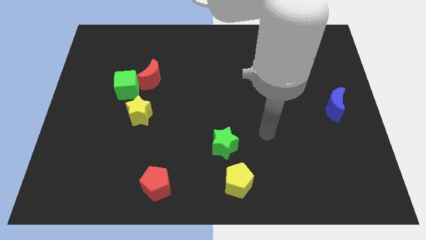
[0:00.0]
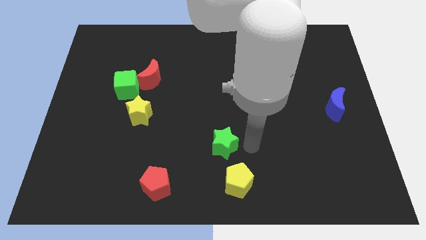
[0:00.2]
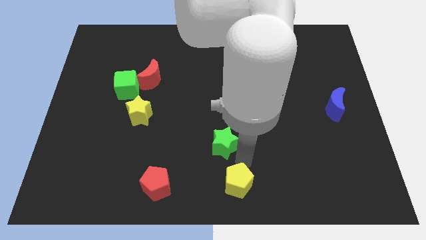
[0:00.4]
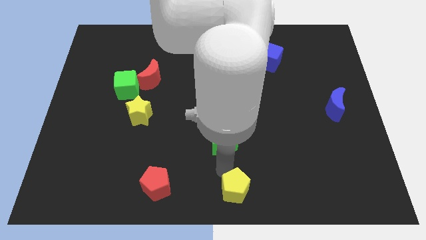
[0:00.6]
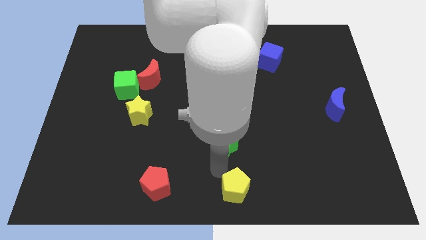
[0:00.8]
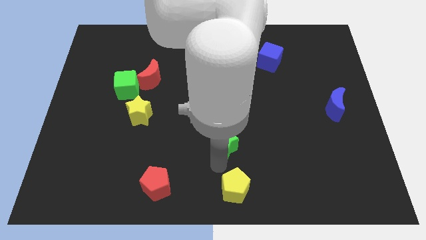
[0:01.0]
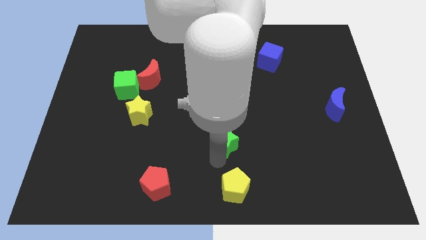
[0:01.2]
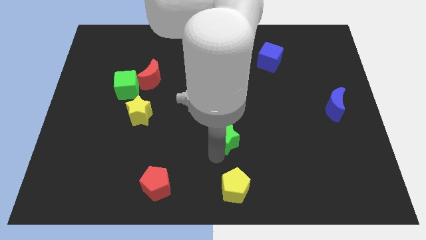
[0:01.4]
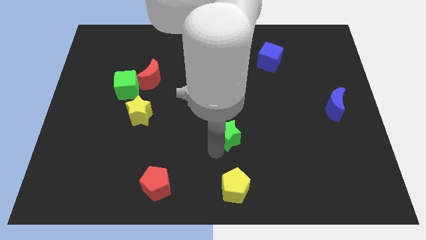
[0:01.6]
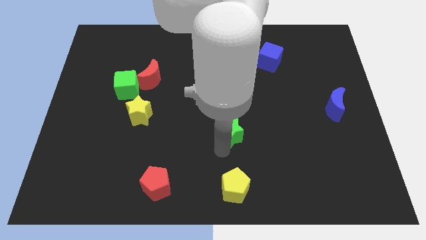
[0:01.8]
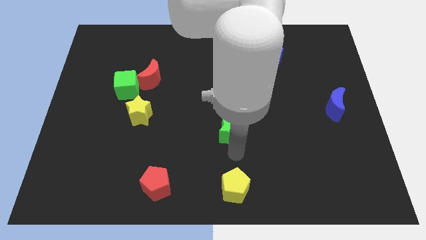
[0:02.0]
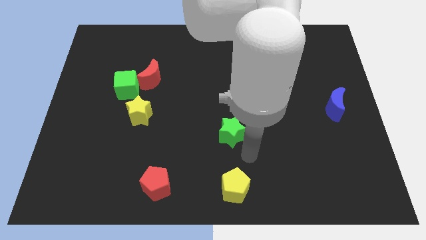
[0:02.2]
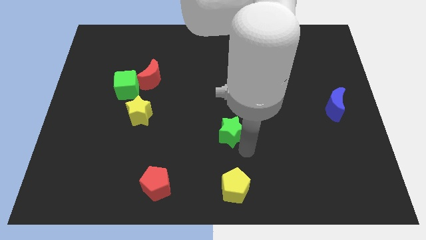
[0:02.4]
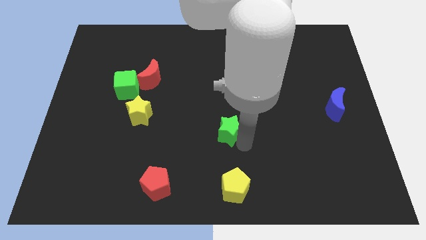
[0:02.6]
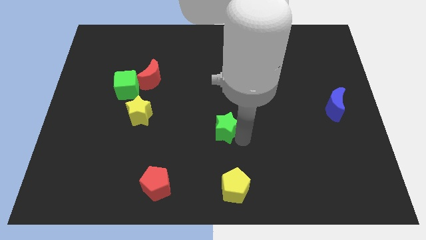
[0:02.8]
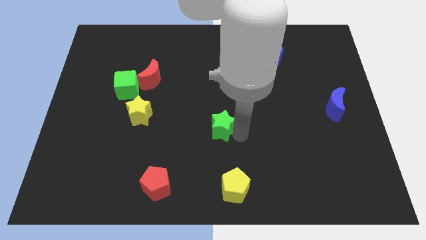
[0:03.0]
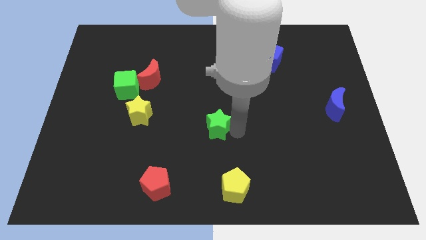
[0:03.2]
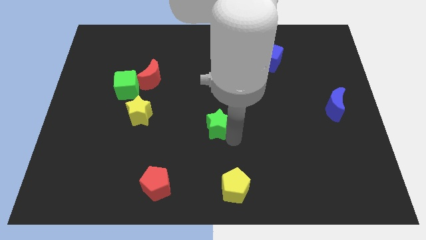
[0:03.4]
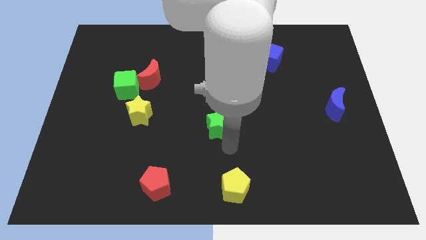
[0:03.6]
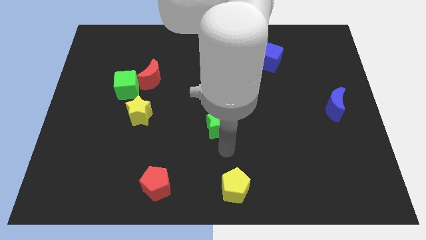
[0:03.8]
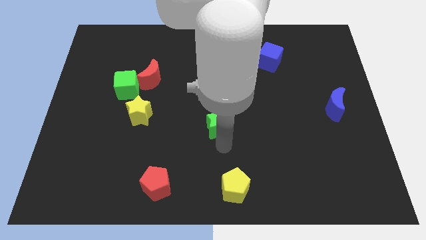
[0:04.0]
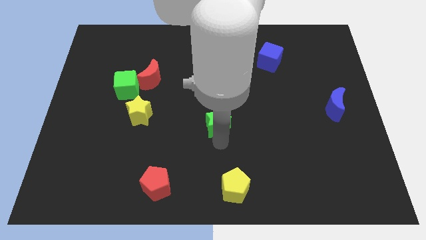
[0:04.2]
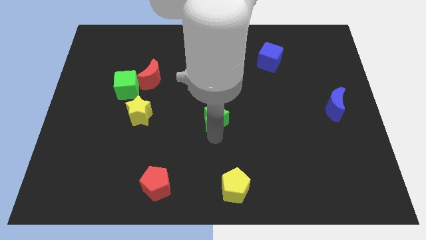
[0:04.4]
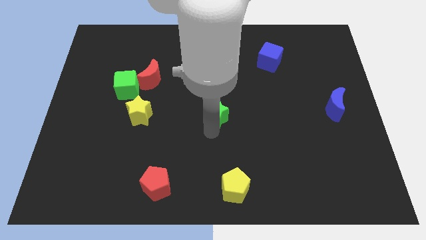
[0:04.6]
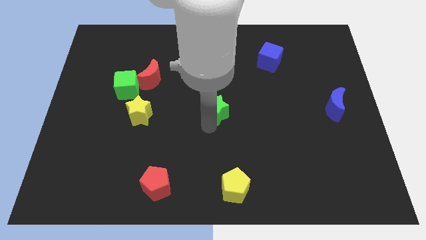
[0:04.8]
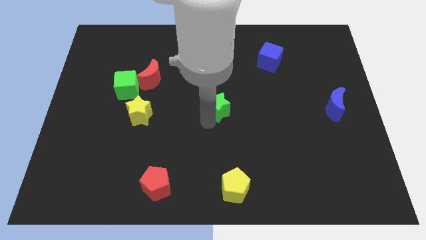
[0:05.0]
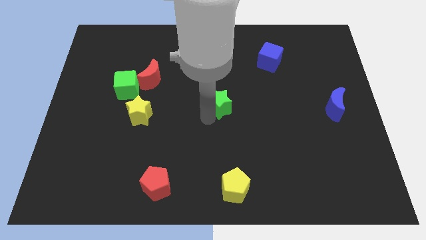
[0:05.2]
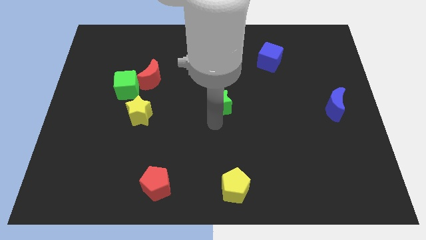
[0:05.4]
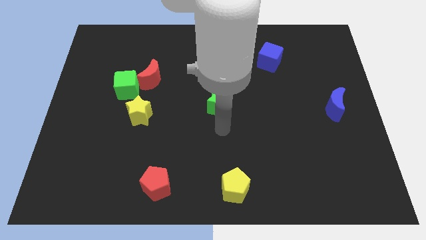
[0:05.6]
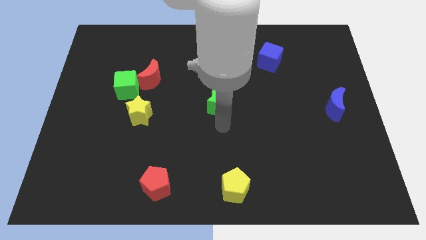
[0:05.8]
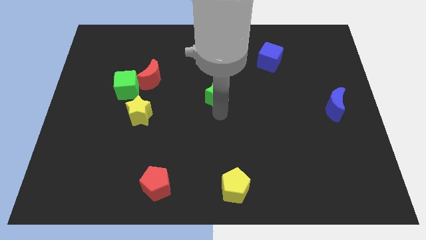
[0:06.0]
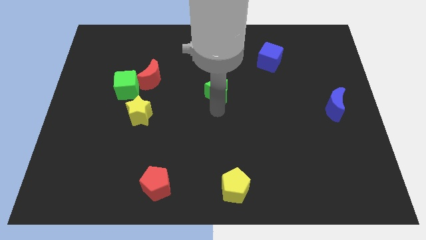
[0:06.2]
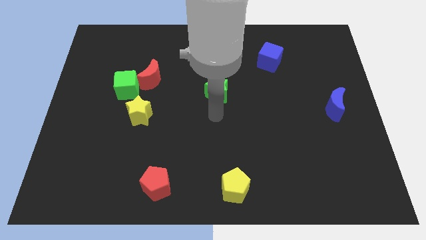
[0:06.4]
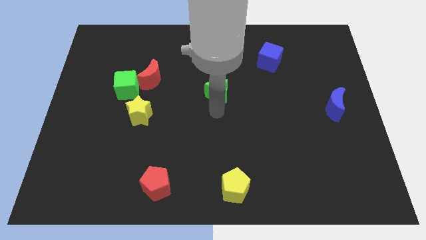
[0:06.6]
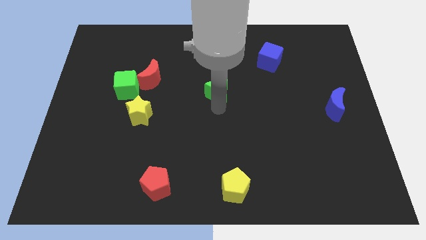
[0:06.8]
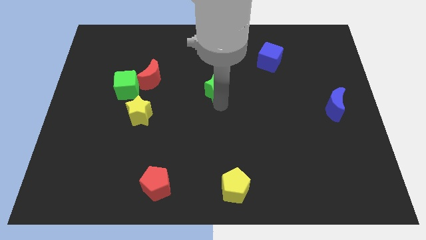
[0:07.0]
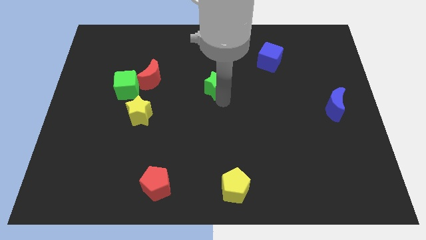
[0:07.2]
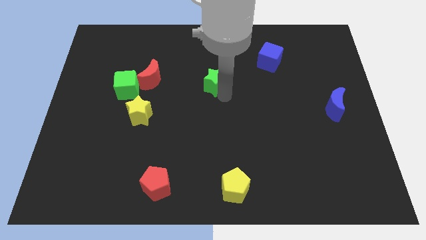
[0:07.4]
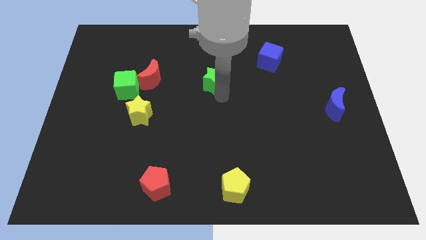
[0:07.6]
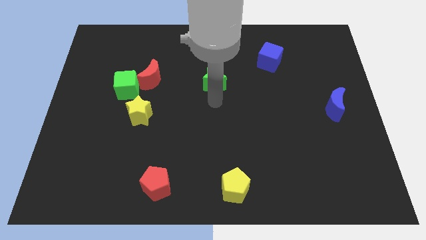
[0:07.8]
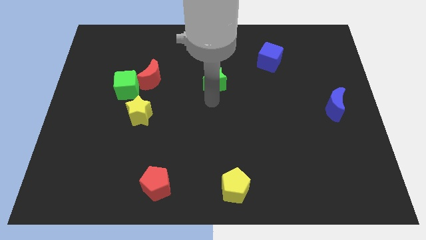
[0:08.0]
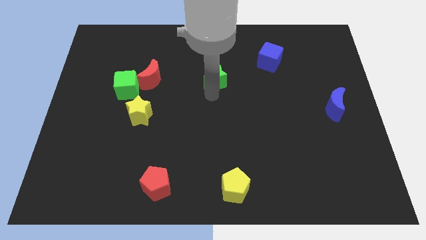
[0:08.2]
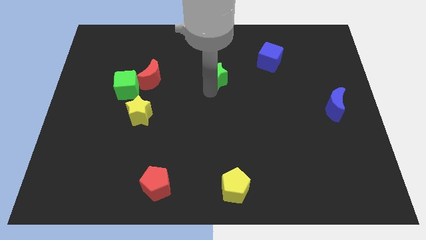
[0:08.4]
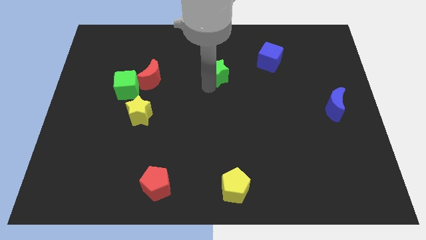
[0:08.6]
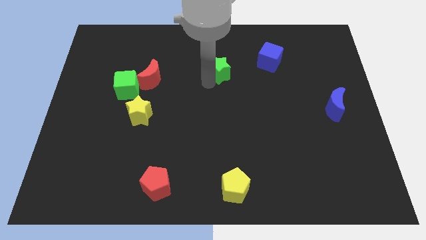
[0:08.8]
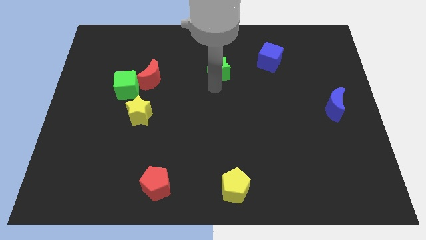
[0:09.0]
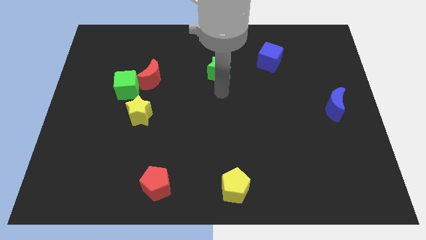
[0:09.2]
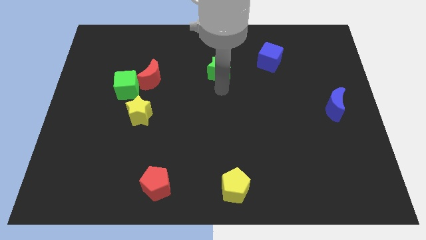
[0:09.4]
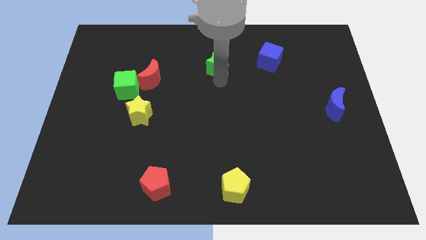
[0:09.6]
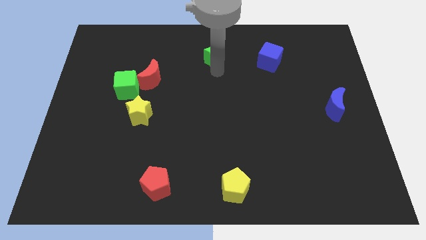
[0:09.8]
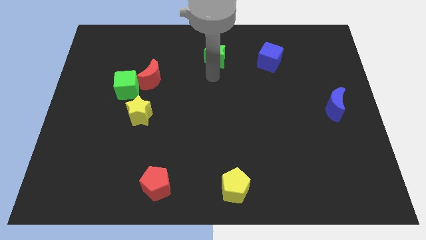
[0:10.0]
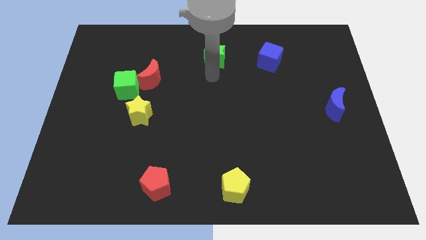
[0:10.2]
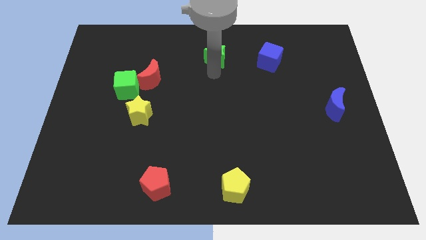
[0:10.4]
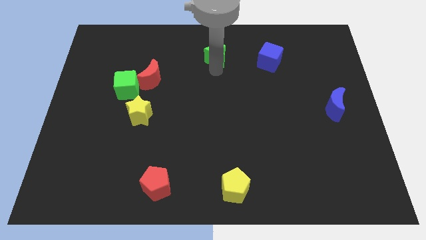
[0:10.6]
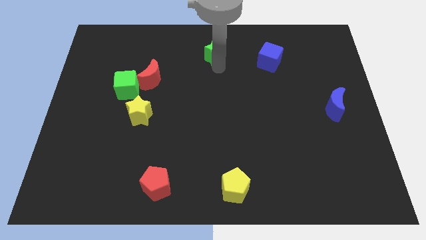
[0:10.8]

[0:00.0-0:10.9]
move the green star to the towards your base

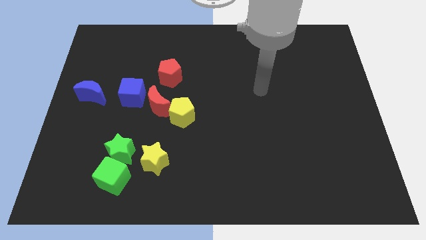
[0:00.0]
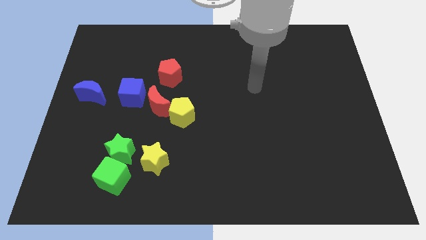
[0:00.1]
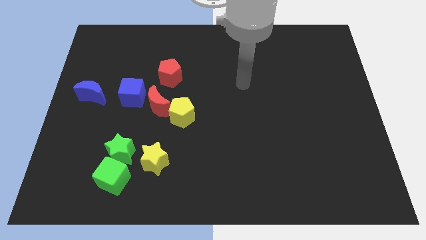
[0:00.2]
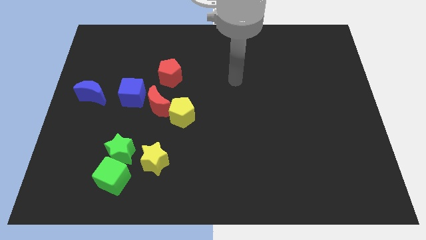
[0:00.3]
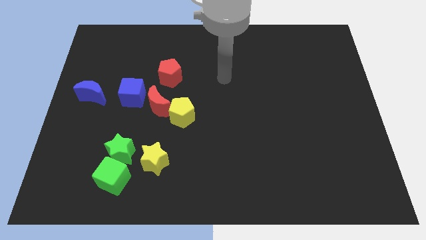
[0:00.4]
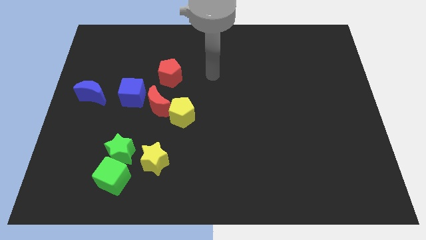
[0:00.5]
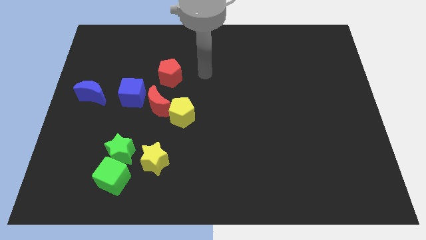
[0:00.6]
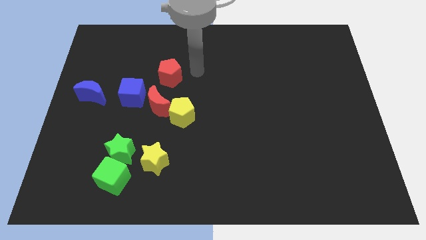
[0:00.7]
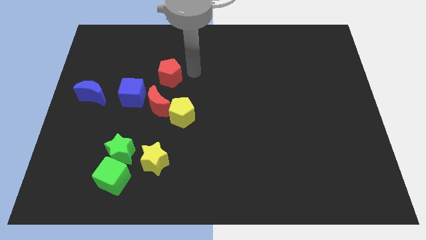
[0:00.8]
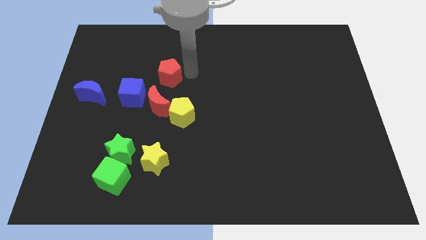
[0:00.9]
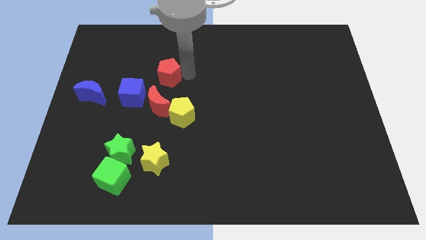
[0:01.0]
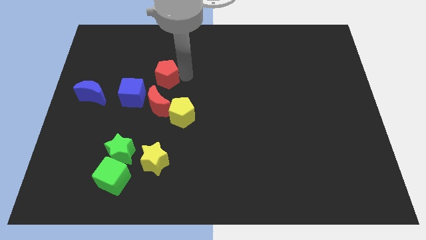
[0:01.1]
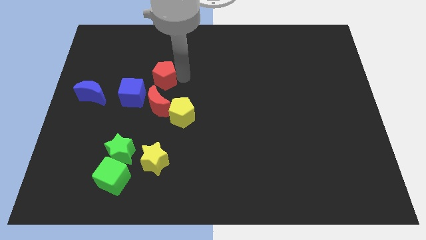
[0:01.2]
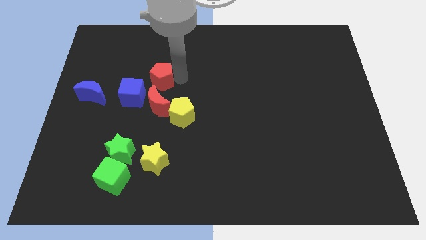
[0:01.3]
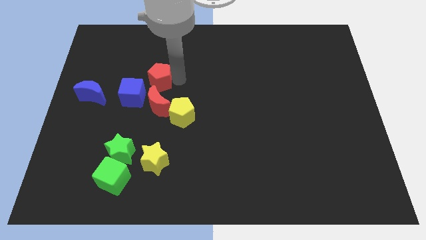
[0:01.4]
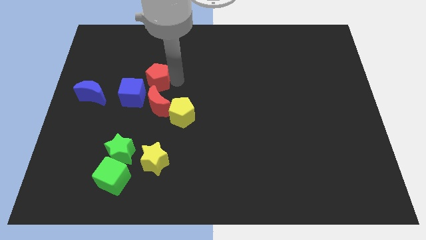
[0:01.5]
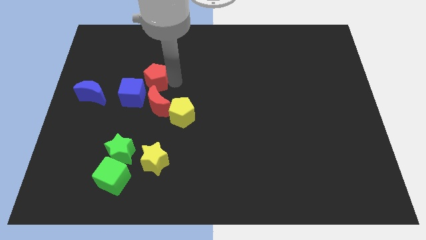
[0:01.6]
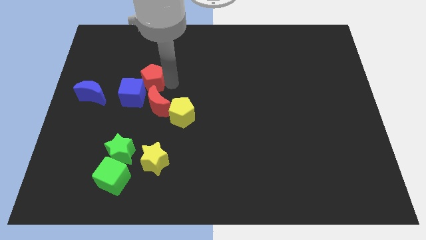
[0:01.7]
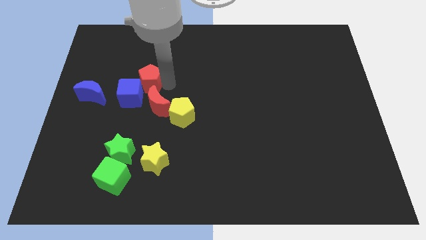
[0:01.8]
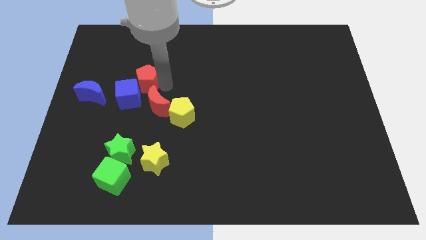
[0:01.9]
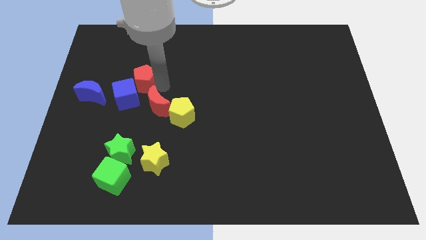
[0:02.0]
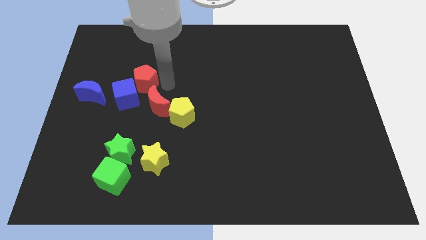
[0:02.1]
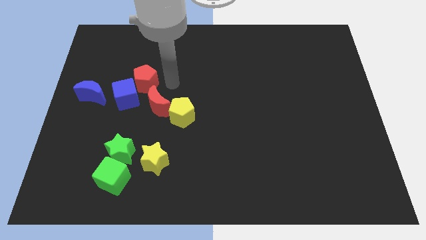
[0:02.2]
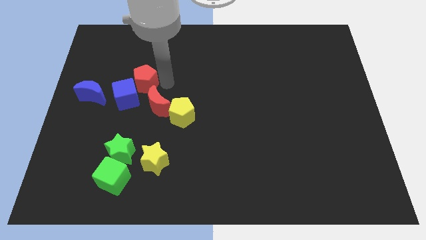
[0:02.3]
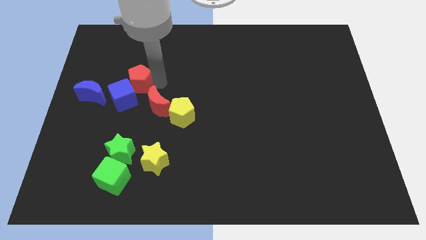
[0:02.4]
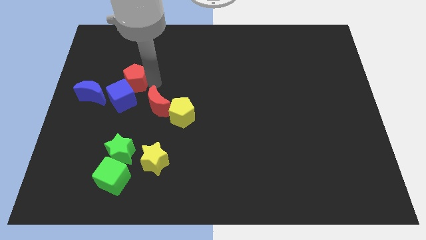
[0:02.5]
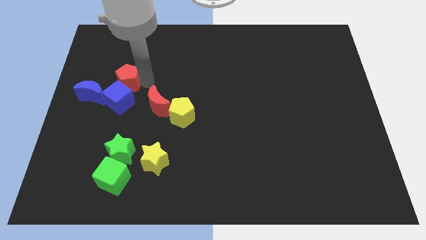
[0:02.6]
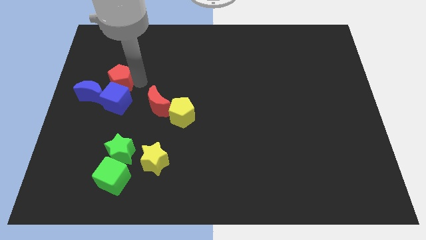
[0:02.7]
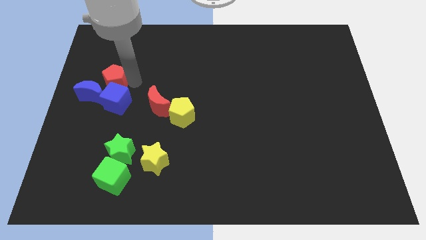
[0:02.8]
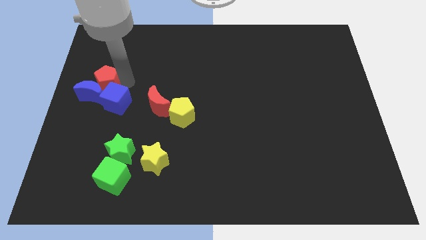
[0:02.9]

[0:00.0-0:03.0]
slide the red pentagon to the left side of the board
